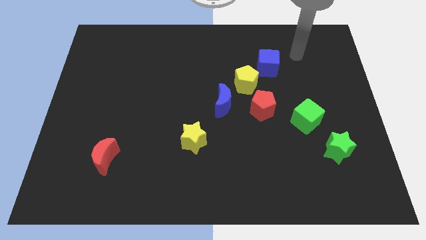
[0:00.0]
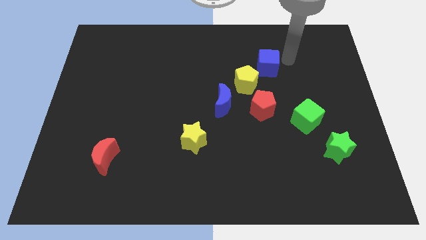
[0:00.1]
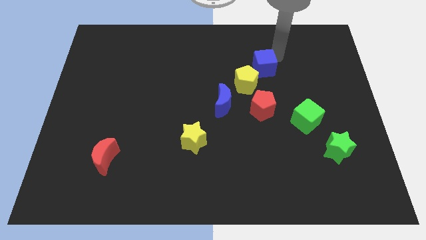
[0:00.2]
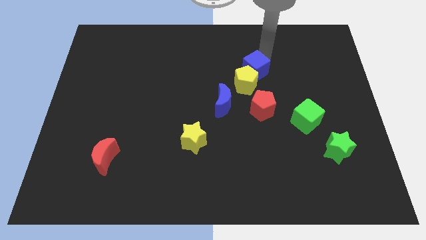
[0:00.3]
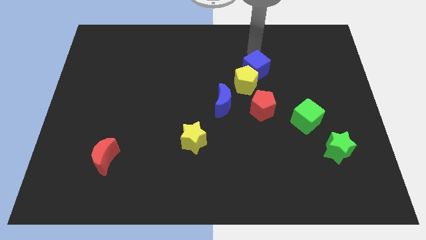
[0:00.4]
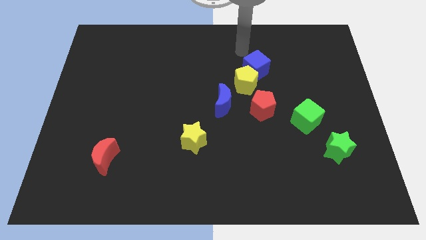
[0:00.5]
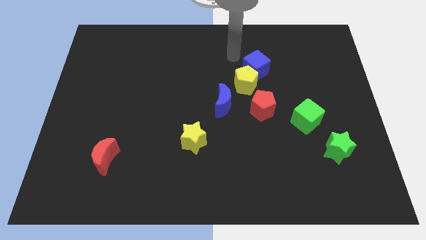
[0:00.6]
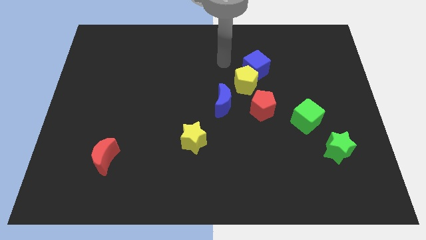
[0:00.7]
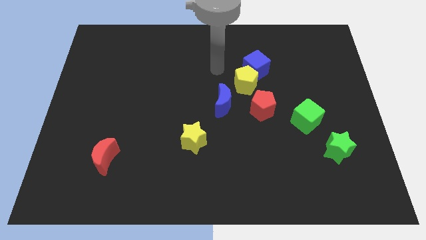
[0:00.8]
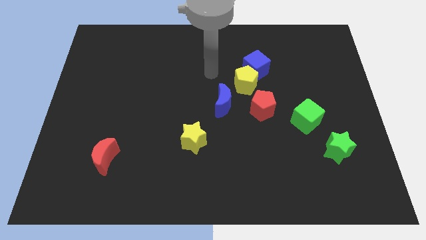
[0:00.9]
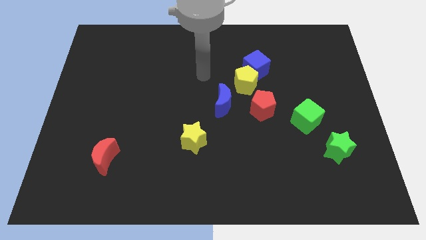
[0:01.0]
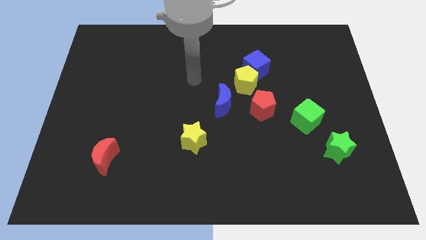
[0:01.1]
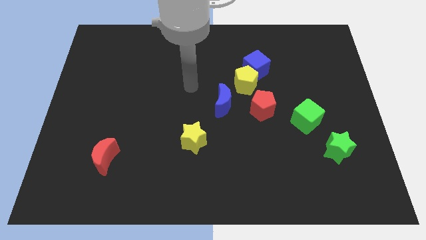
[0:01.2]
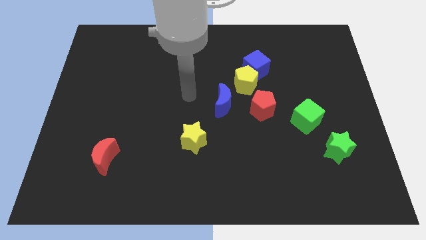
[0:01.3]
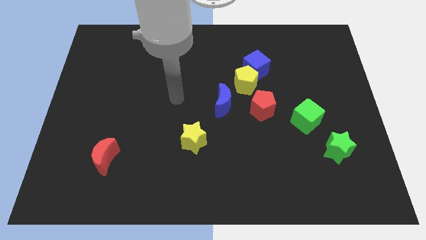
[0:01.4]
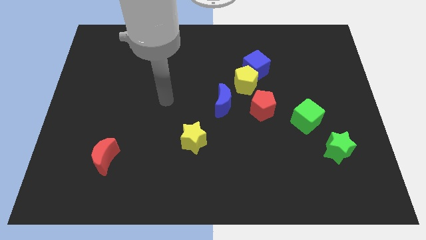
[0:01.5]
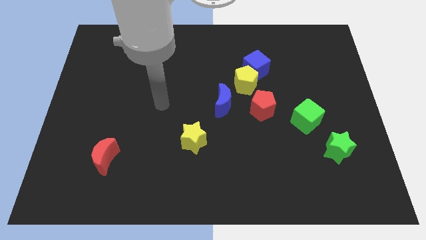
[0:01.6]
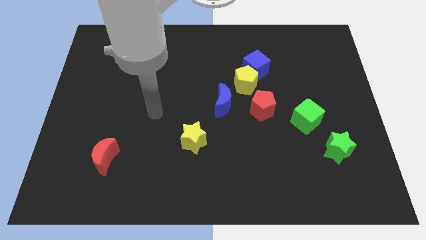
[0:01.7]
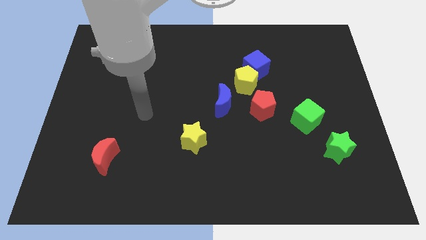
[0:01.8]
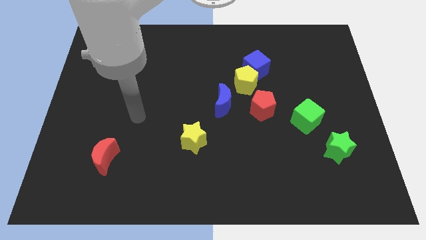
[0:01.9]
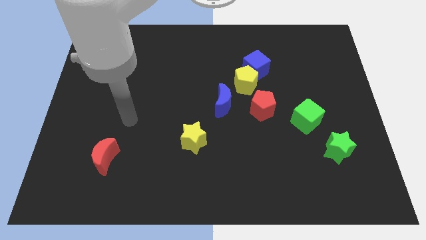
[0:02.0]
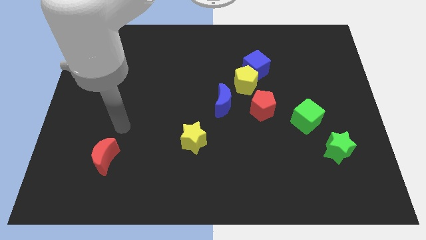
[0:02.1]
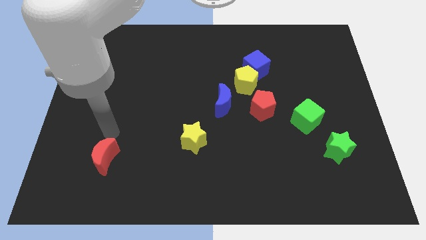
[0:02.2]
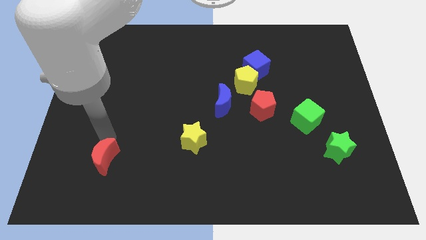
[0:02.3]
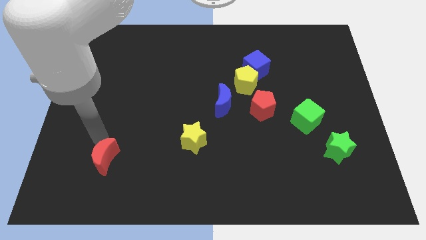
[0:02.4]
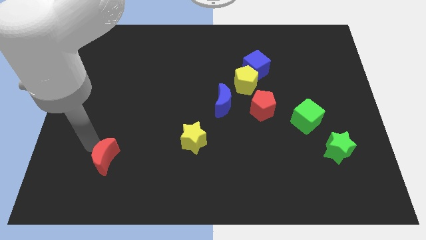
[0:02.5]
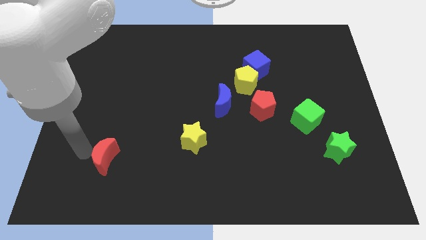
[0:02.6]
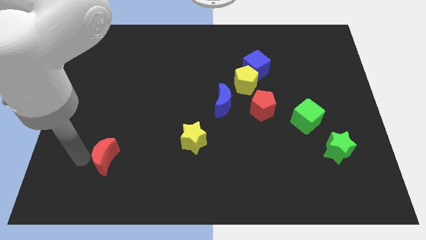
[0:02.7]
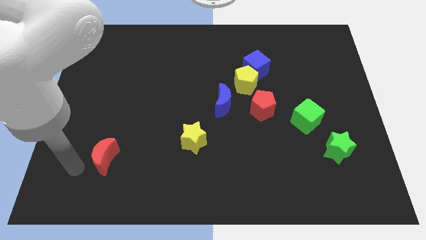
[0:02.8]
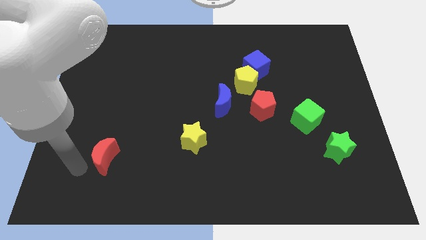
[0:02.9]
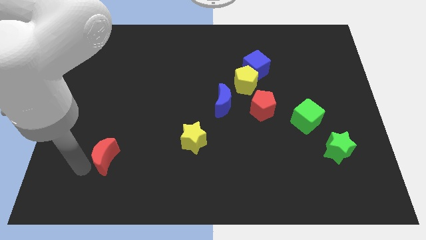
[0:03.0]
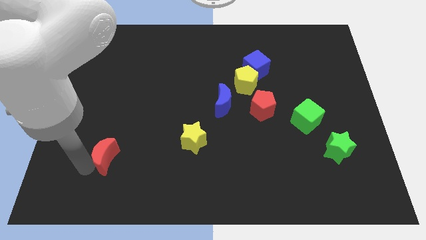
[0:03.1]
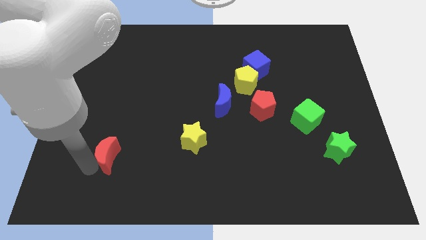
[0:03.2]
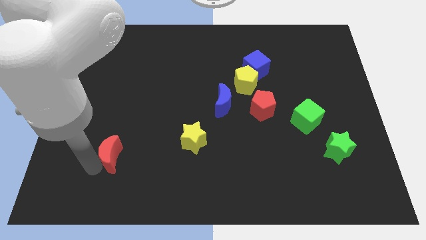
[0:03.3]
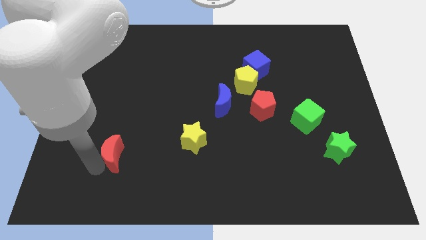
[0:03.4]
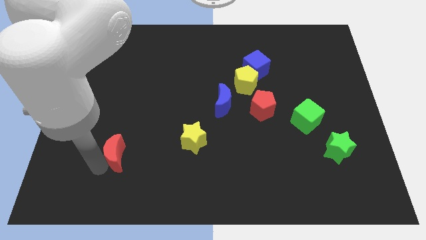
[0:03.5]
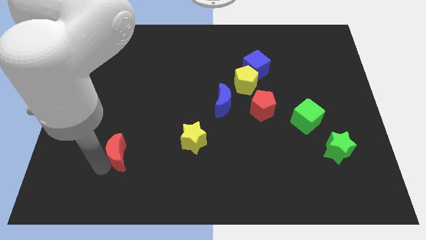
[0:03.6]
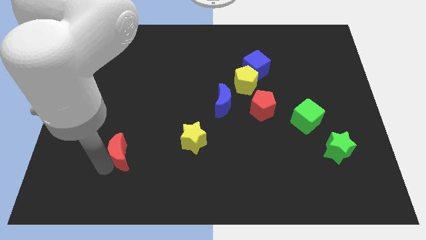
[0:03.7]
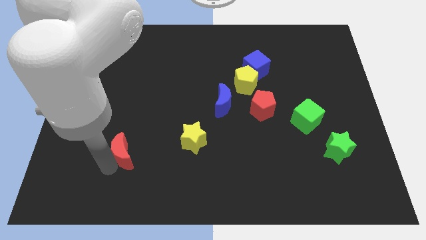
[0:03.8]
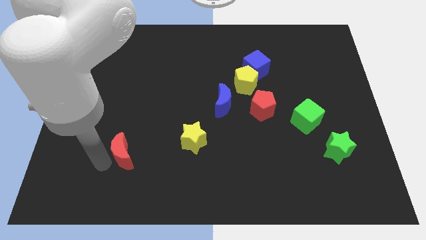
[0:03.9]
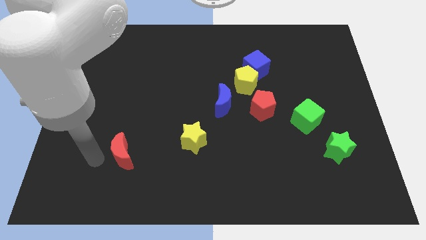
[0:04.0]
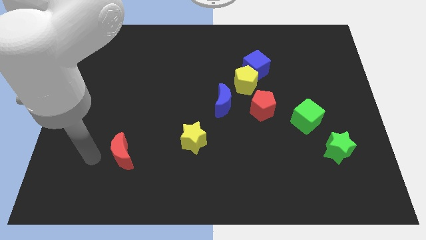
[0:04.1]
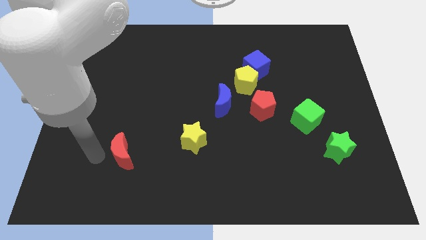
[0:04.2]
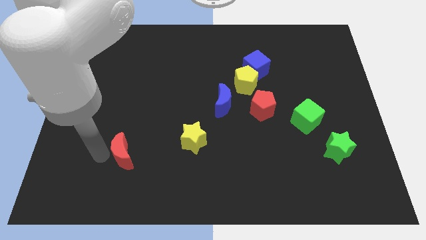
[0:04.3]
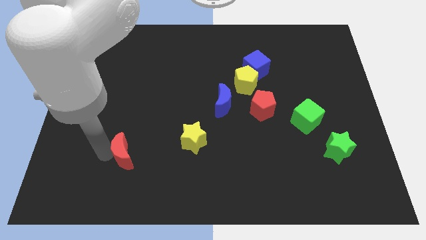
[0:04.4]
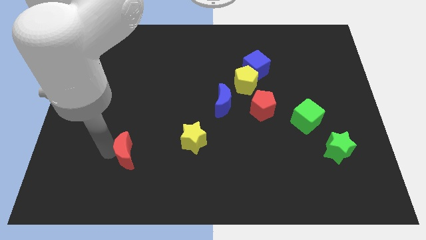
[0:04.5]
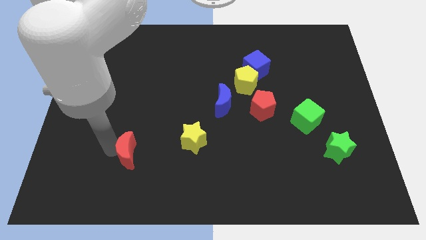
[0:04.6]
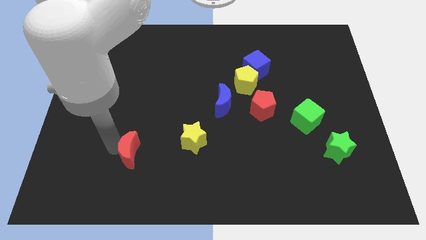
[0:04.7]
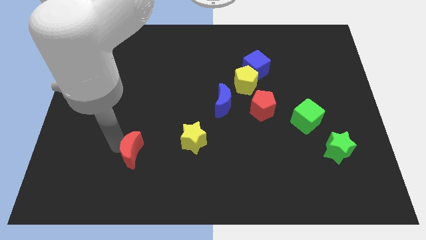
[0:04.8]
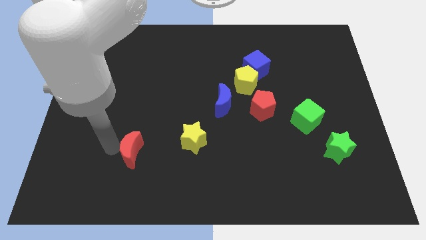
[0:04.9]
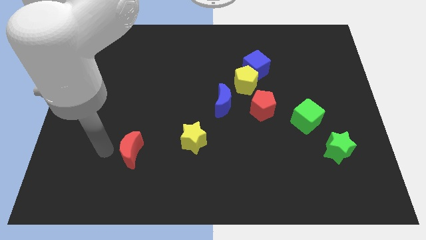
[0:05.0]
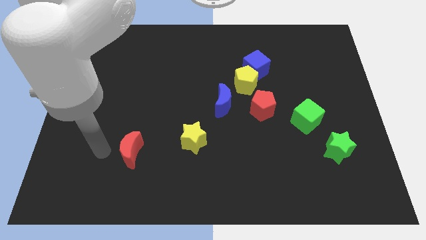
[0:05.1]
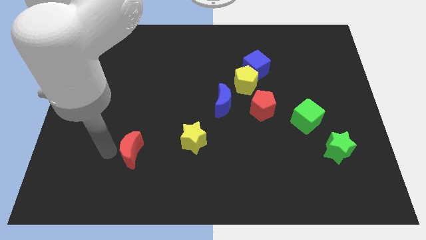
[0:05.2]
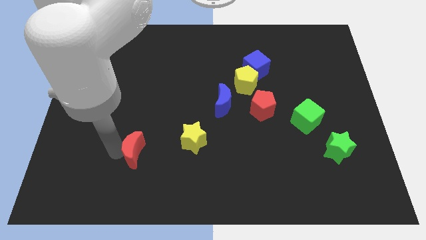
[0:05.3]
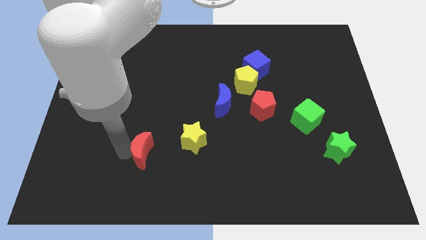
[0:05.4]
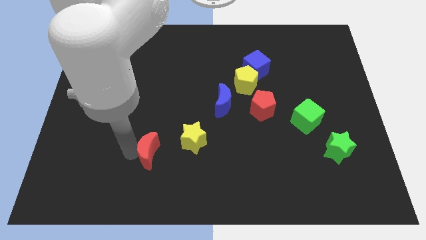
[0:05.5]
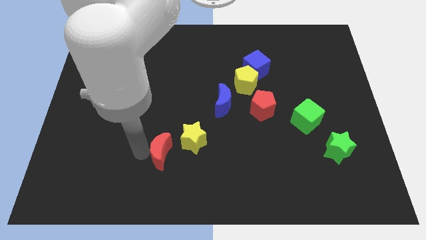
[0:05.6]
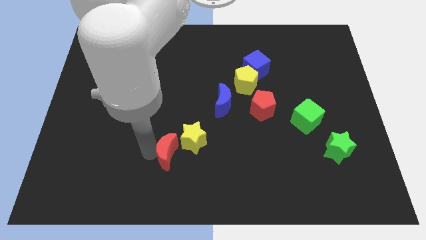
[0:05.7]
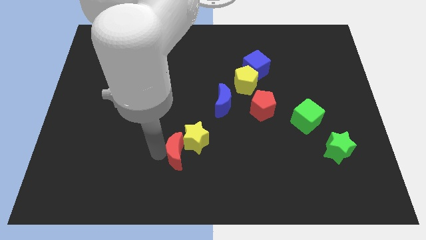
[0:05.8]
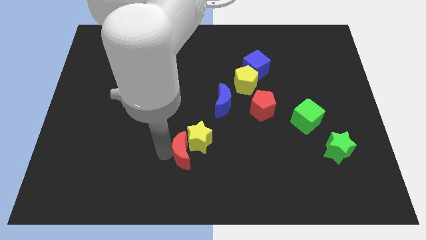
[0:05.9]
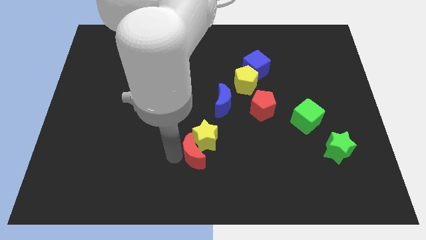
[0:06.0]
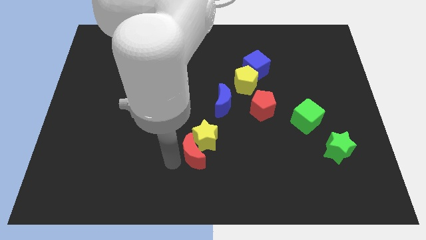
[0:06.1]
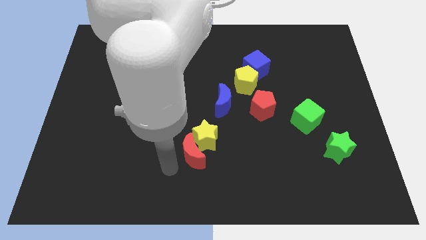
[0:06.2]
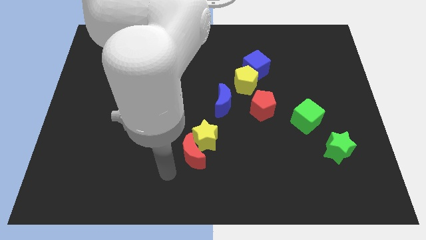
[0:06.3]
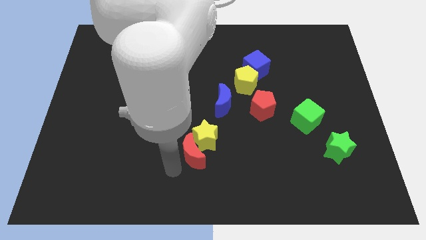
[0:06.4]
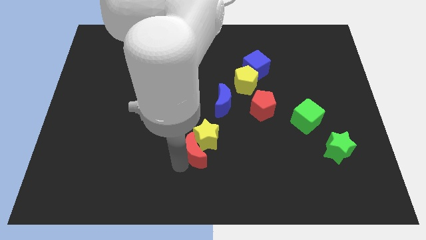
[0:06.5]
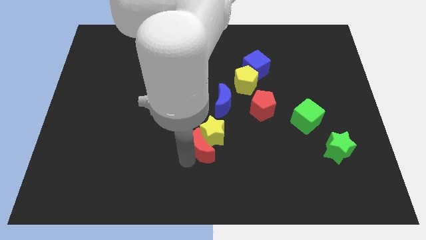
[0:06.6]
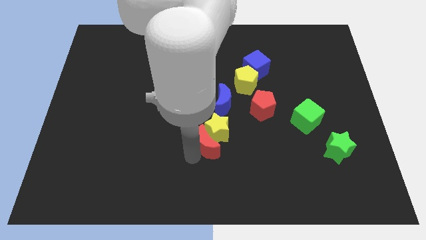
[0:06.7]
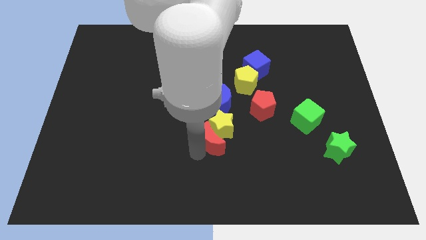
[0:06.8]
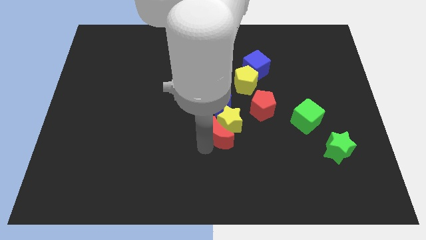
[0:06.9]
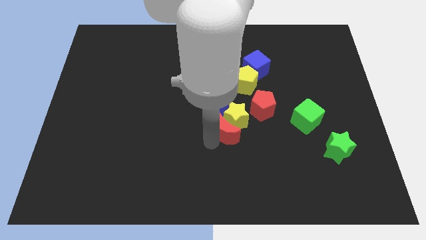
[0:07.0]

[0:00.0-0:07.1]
push the red moon to the bottom left of the red pentagon
